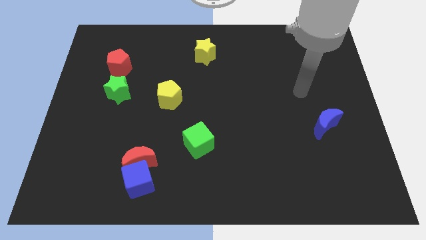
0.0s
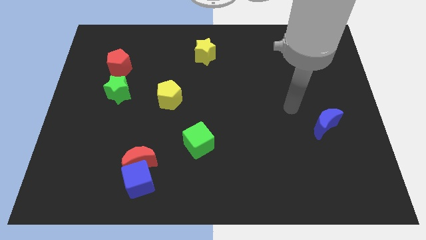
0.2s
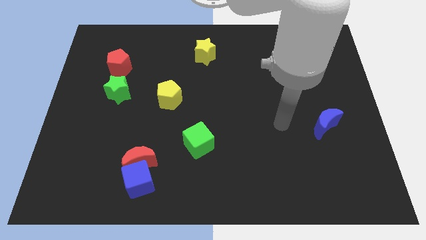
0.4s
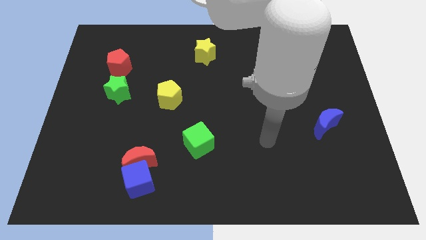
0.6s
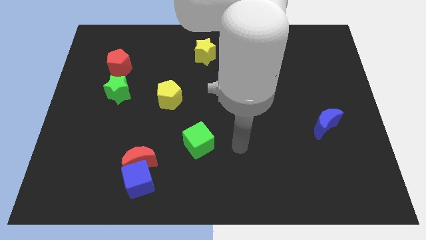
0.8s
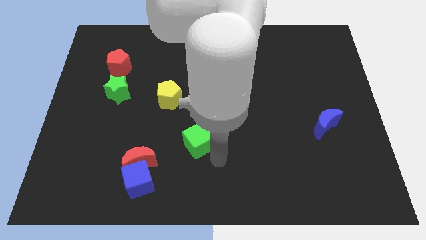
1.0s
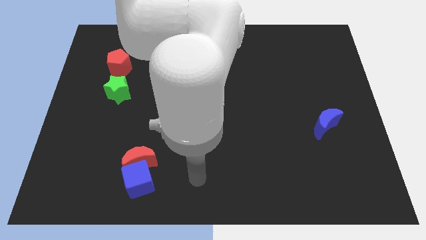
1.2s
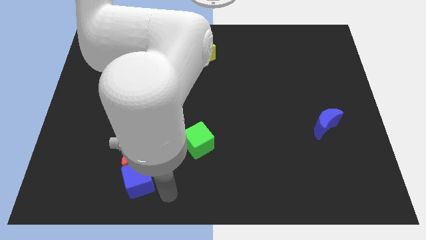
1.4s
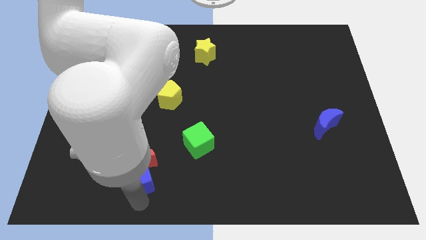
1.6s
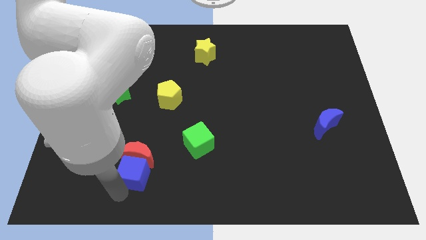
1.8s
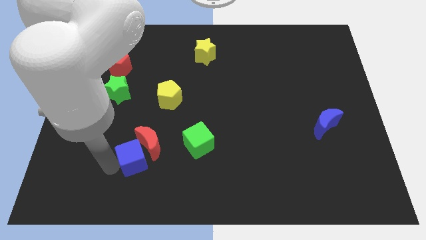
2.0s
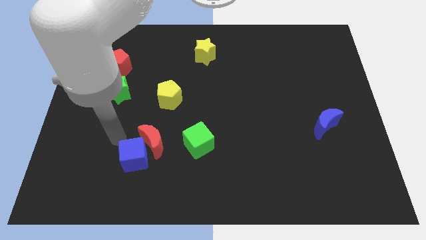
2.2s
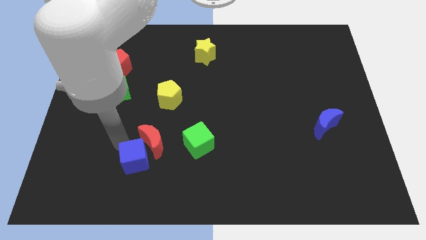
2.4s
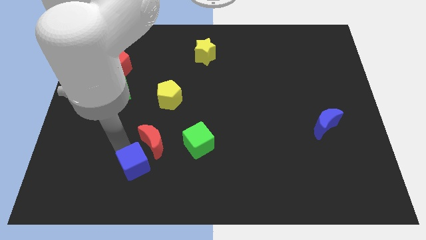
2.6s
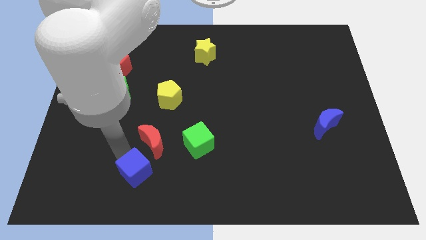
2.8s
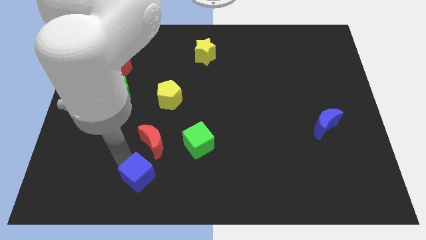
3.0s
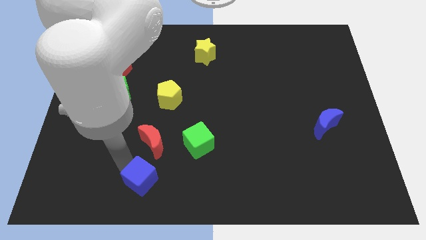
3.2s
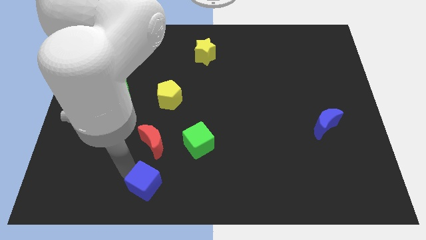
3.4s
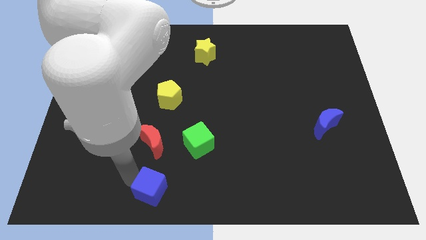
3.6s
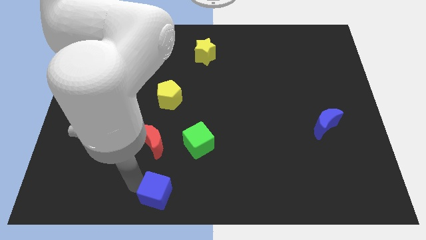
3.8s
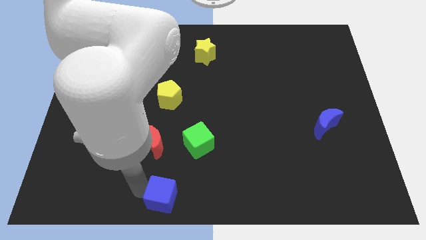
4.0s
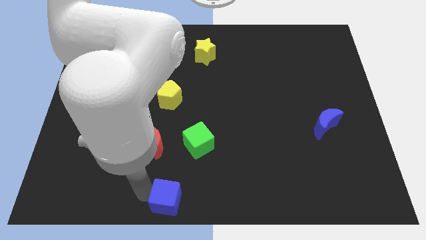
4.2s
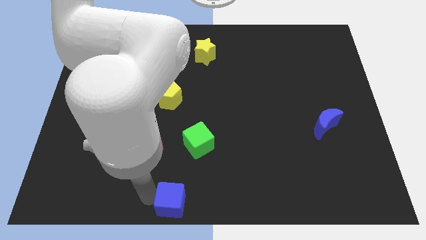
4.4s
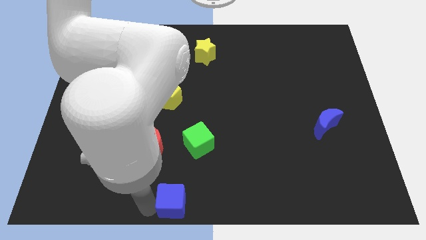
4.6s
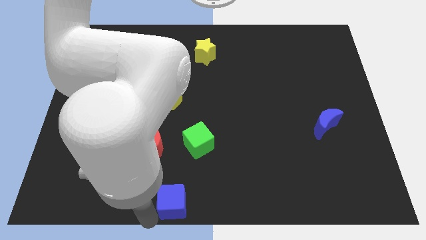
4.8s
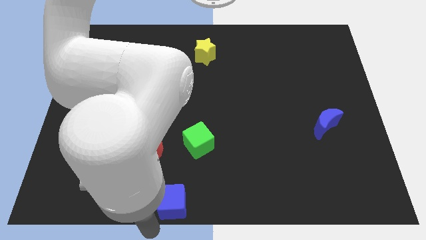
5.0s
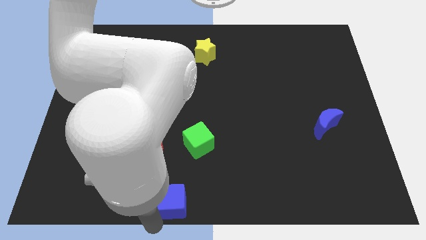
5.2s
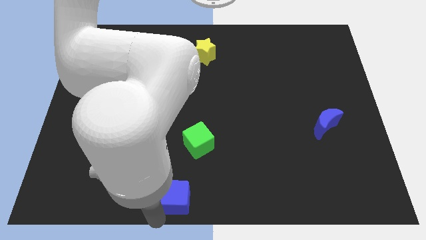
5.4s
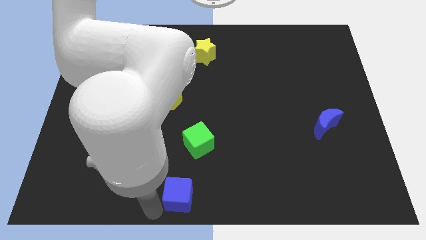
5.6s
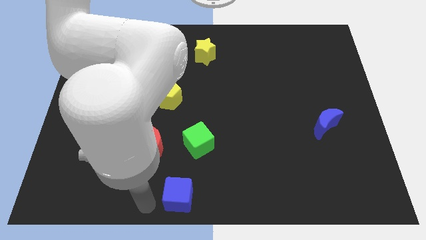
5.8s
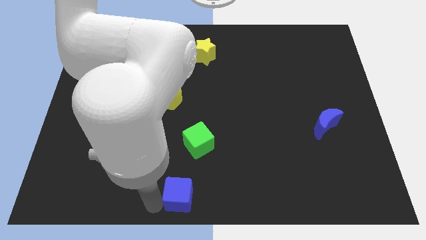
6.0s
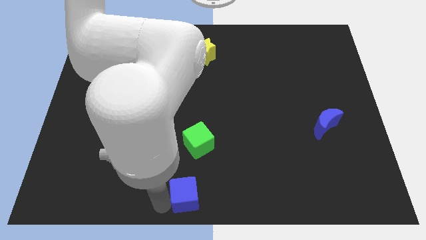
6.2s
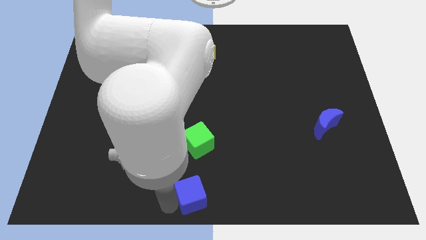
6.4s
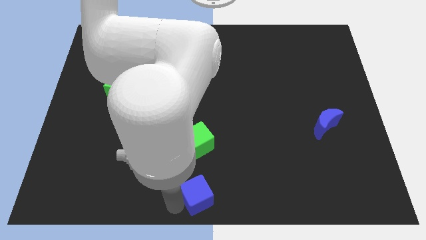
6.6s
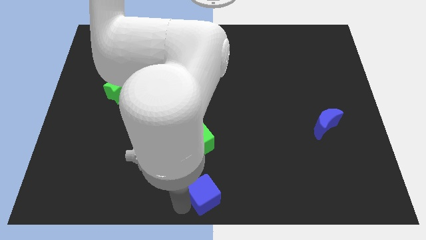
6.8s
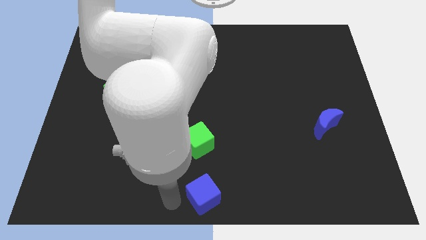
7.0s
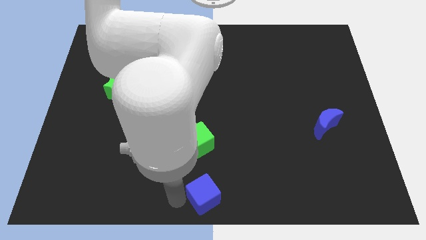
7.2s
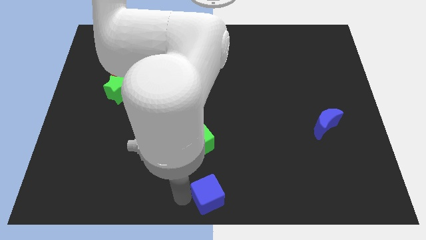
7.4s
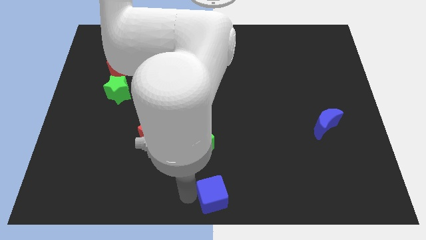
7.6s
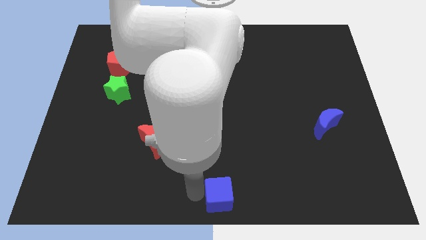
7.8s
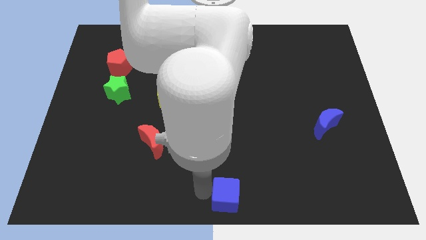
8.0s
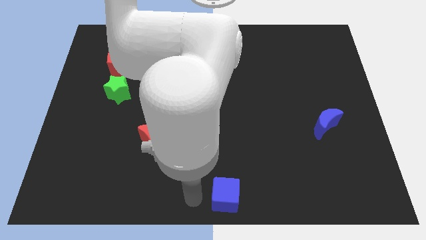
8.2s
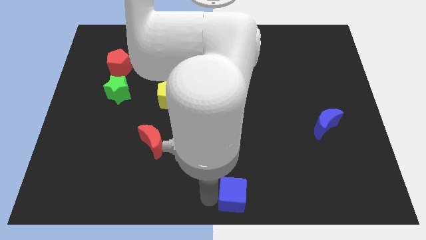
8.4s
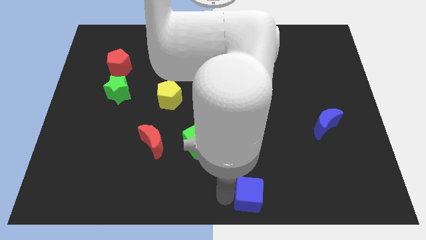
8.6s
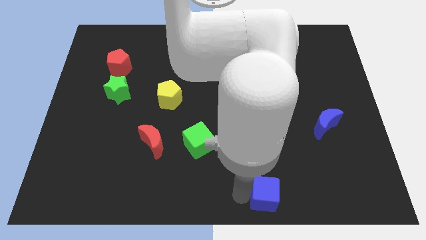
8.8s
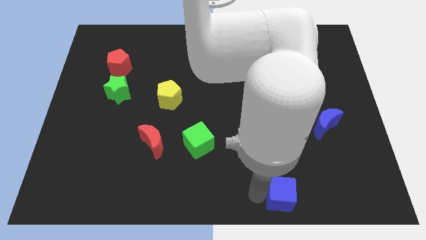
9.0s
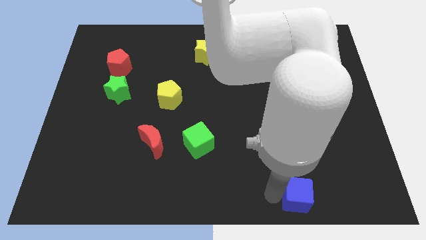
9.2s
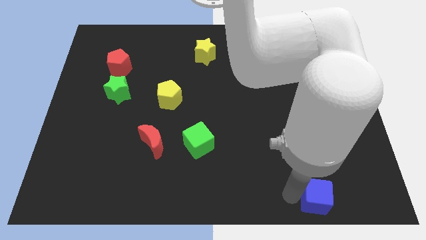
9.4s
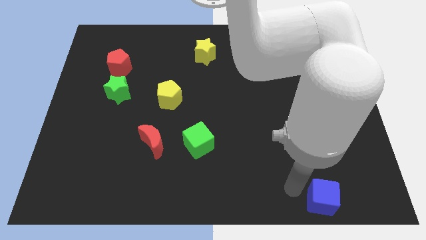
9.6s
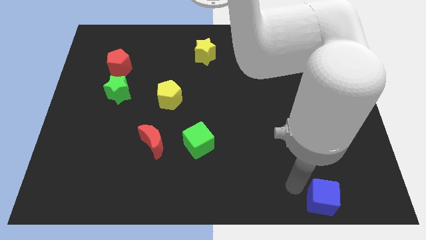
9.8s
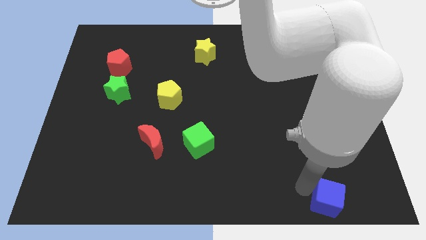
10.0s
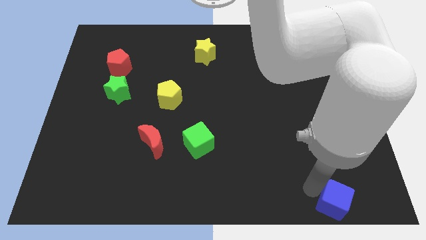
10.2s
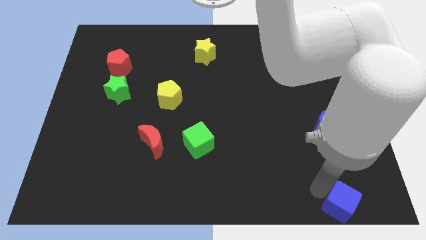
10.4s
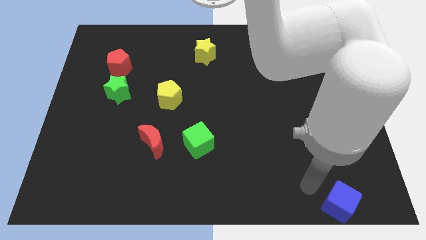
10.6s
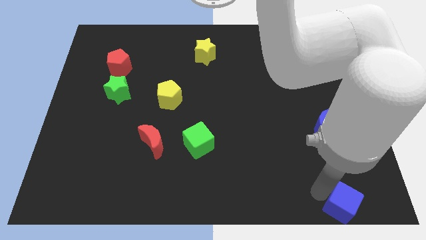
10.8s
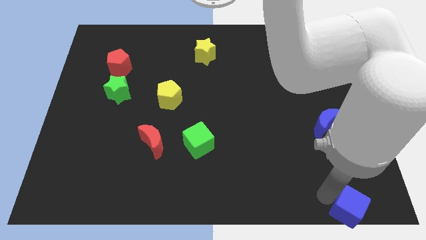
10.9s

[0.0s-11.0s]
slide the blue cube to the bottom right corner

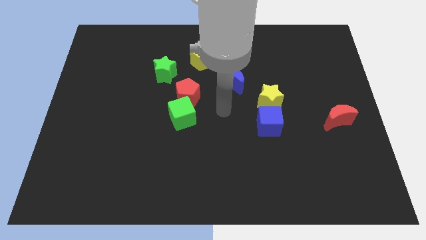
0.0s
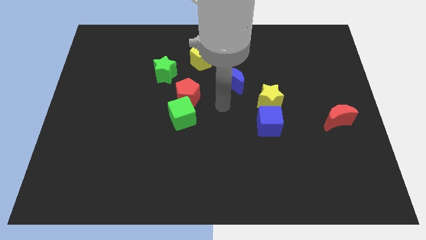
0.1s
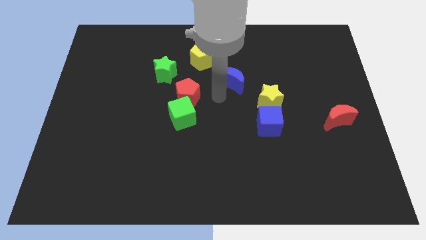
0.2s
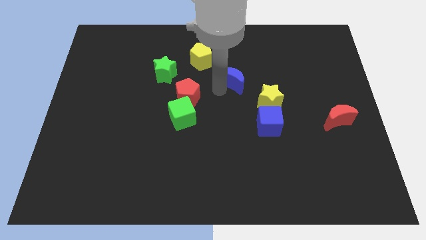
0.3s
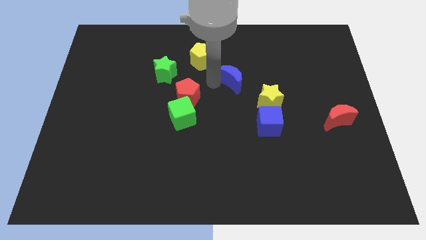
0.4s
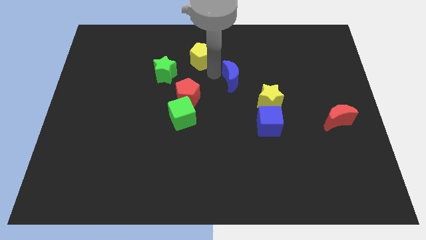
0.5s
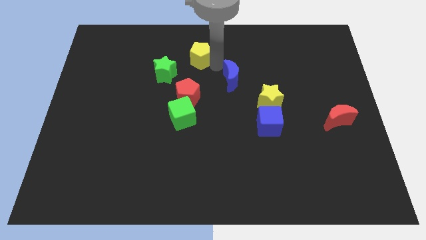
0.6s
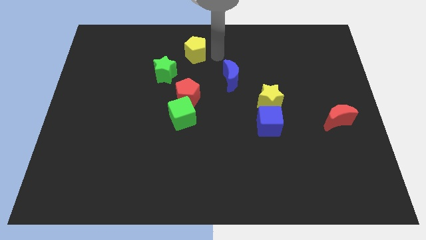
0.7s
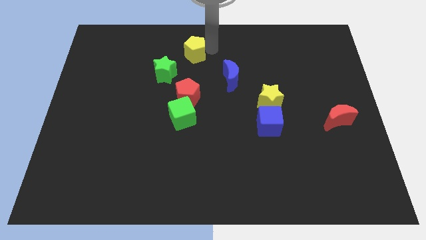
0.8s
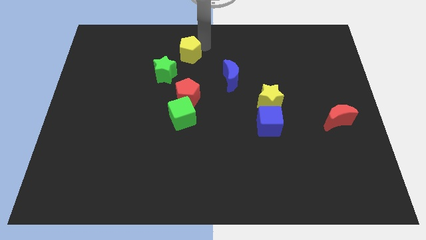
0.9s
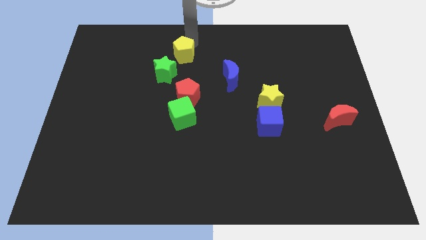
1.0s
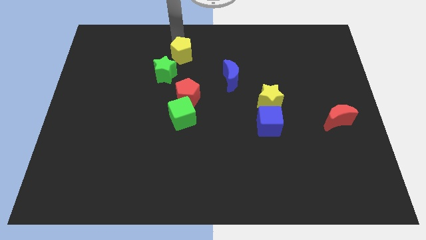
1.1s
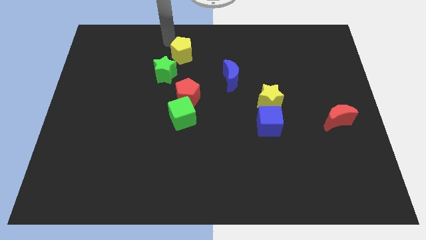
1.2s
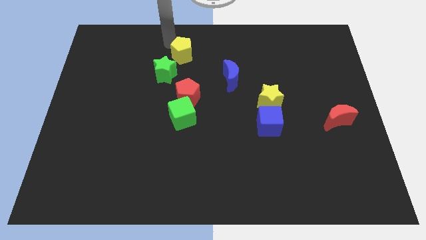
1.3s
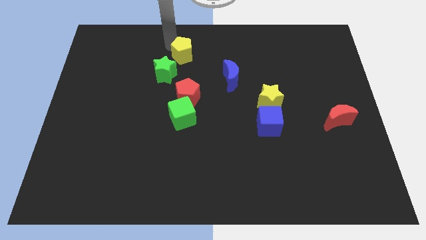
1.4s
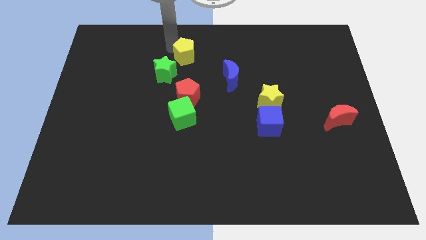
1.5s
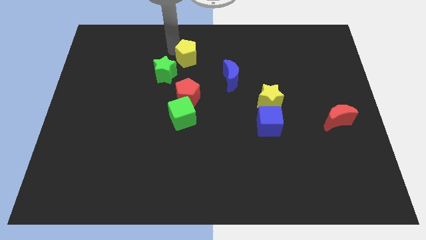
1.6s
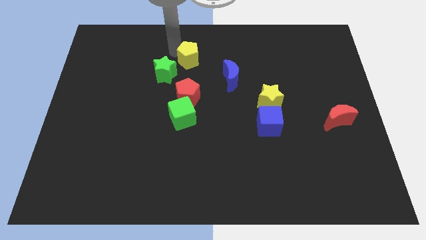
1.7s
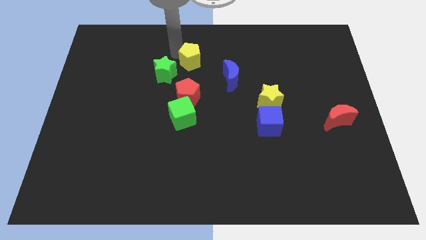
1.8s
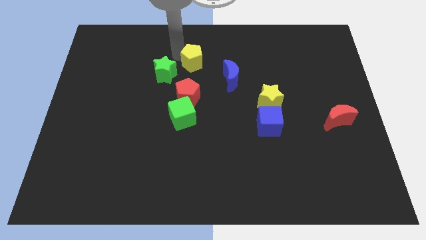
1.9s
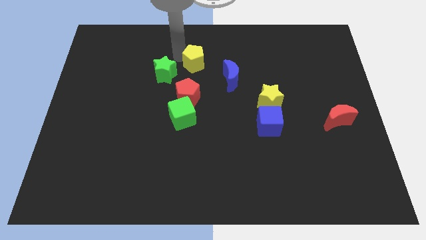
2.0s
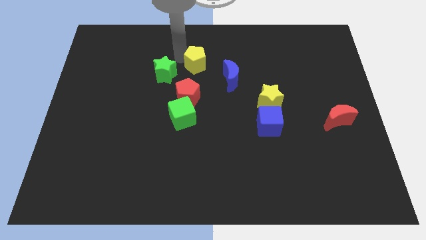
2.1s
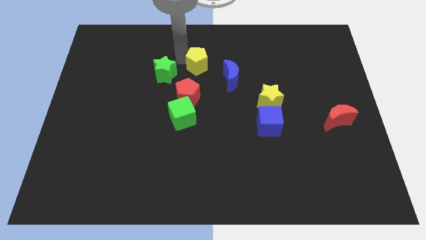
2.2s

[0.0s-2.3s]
put the yellow pentagon to the center
